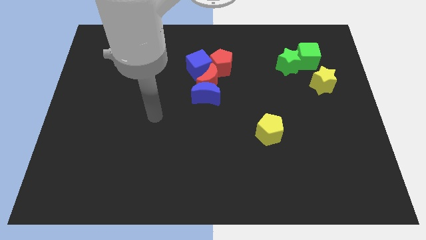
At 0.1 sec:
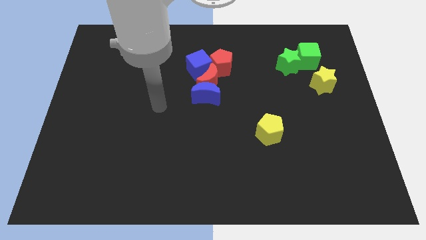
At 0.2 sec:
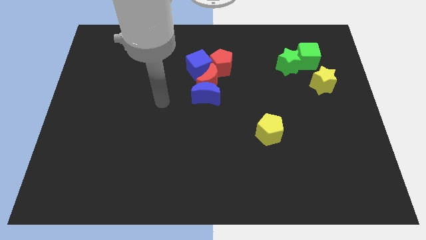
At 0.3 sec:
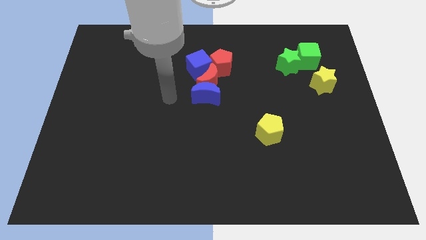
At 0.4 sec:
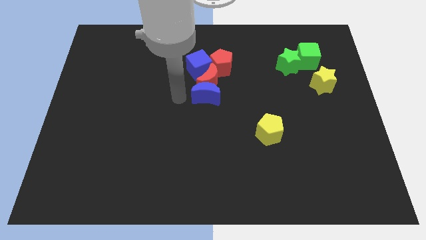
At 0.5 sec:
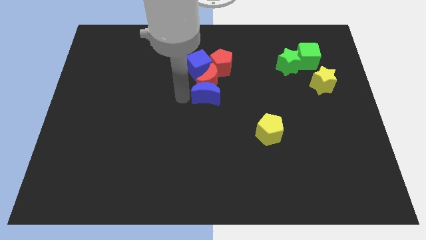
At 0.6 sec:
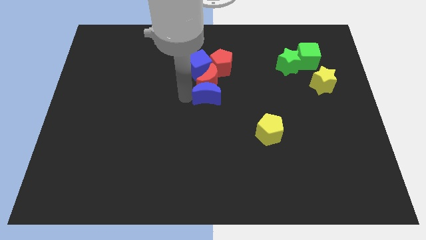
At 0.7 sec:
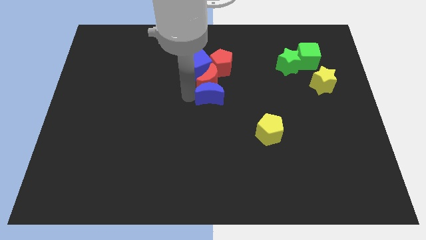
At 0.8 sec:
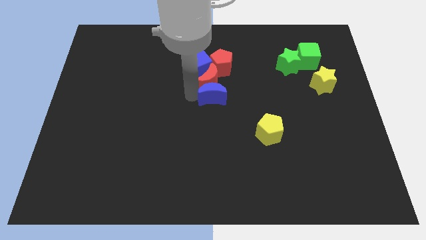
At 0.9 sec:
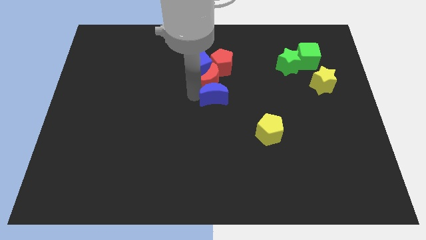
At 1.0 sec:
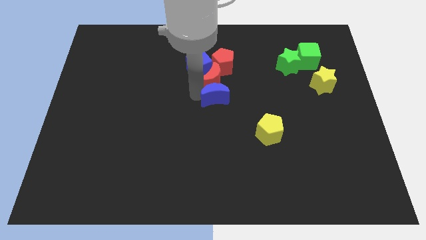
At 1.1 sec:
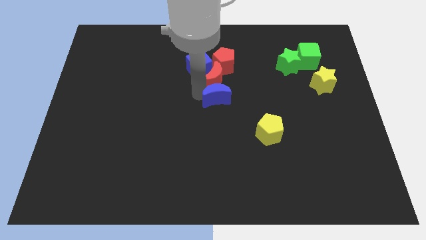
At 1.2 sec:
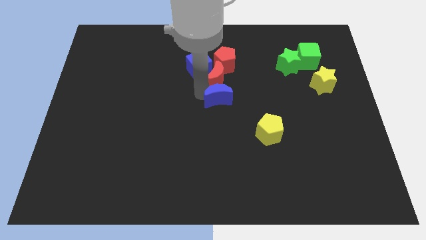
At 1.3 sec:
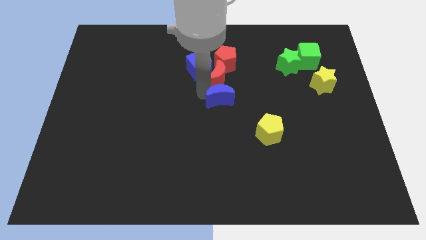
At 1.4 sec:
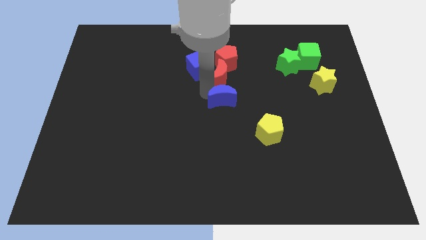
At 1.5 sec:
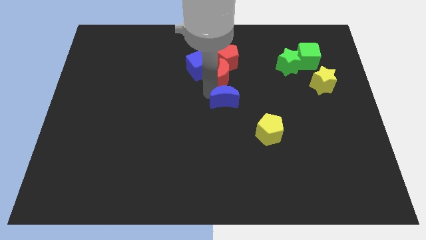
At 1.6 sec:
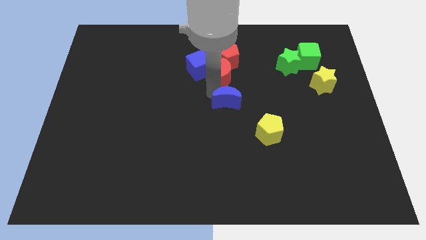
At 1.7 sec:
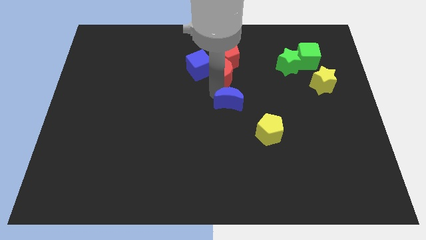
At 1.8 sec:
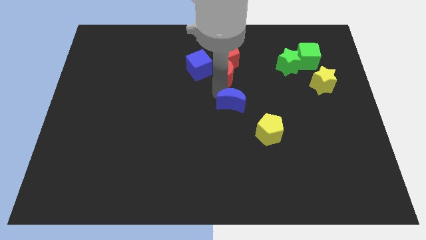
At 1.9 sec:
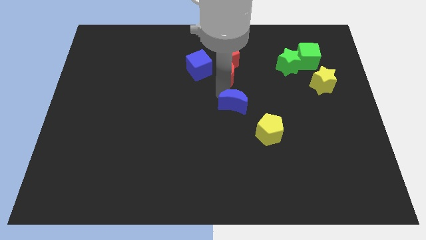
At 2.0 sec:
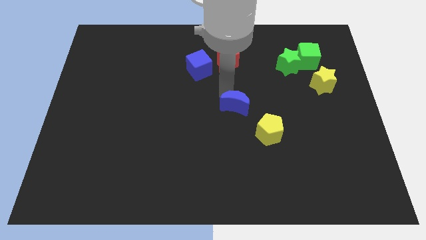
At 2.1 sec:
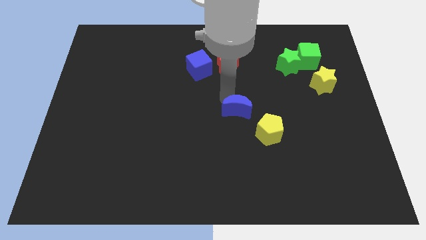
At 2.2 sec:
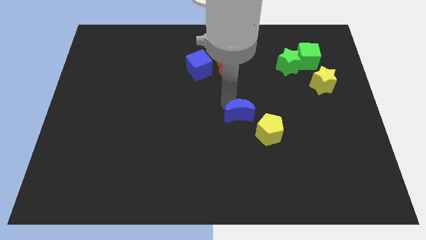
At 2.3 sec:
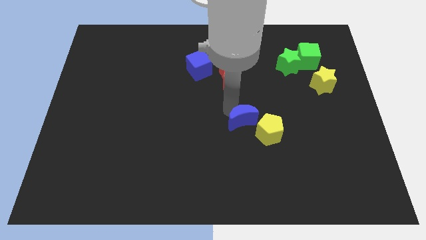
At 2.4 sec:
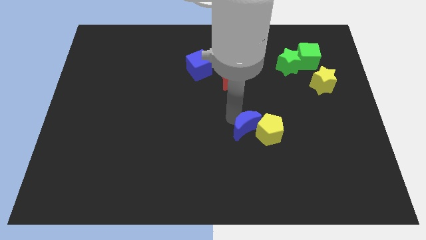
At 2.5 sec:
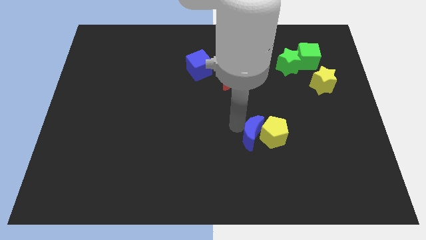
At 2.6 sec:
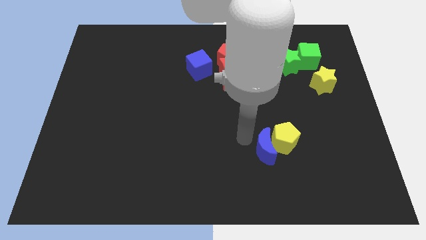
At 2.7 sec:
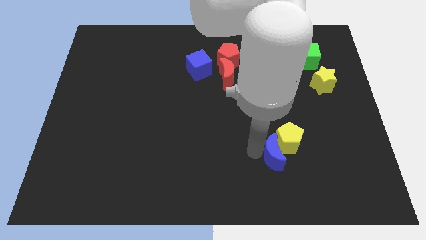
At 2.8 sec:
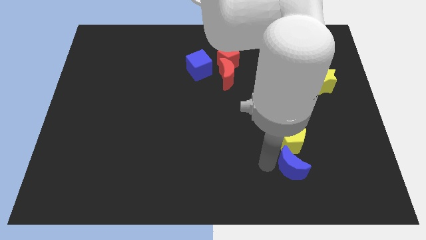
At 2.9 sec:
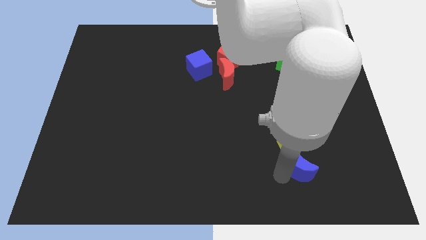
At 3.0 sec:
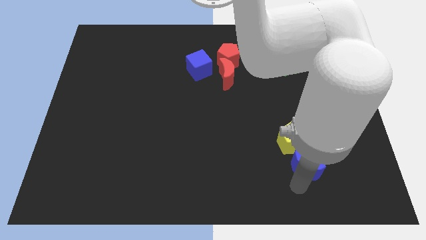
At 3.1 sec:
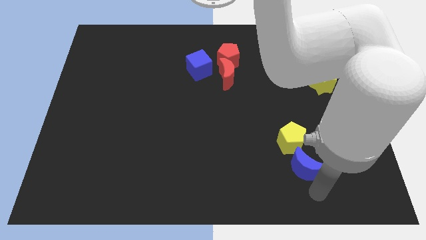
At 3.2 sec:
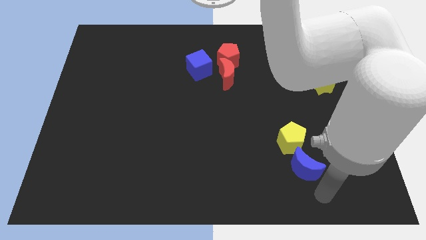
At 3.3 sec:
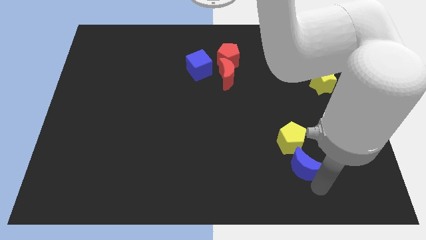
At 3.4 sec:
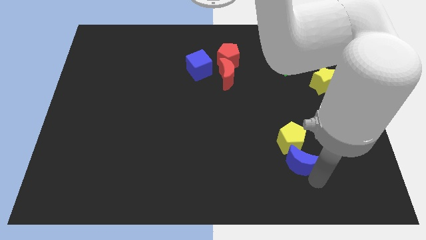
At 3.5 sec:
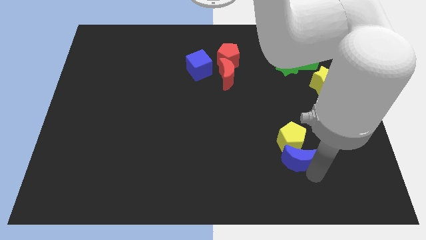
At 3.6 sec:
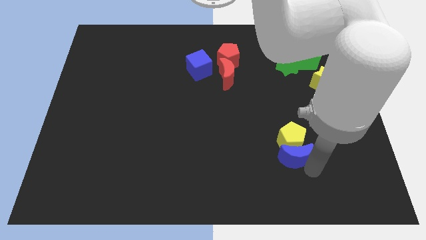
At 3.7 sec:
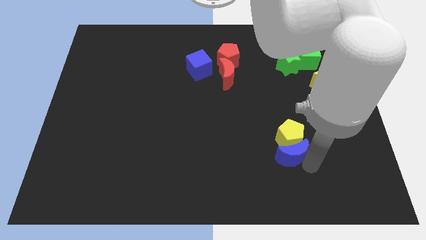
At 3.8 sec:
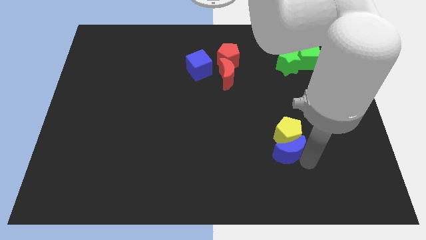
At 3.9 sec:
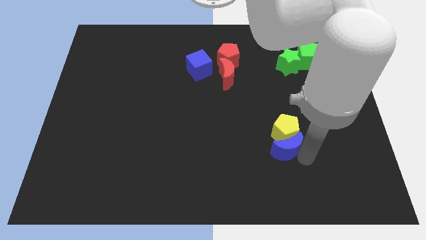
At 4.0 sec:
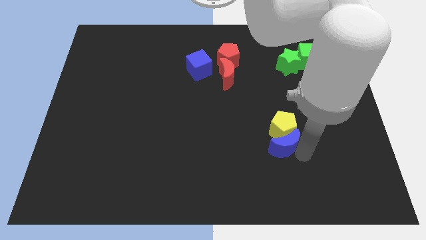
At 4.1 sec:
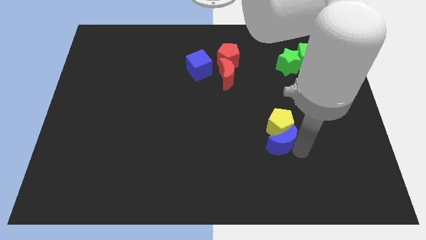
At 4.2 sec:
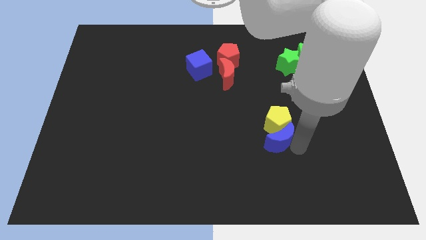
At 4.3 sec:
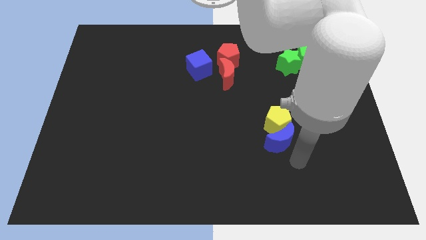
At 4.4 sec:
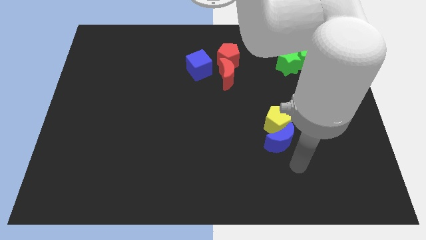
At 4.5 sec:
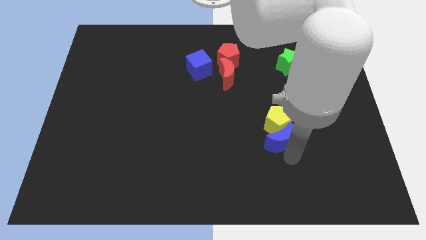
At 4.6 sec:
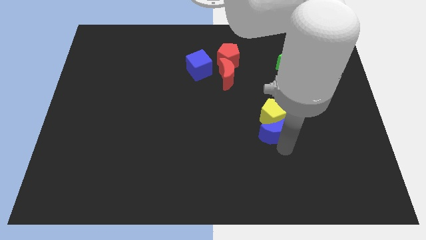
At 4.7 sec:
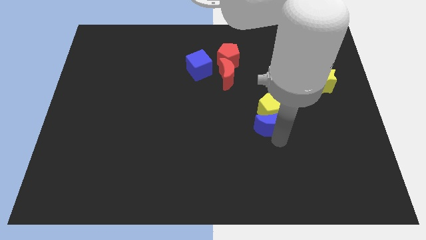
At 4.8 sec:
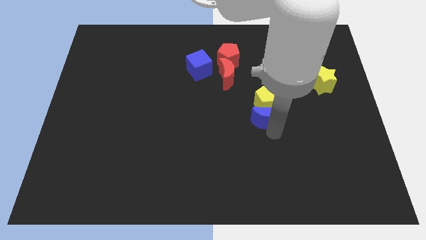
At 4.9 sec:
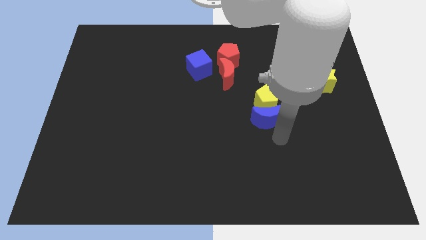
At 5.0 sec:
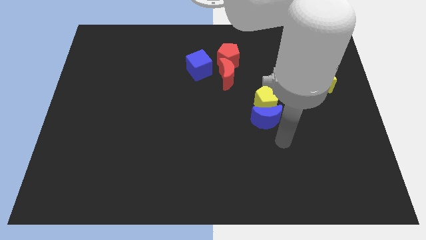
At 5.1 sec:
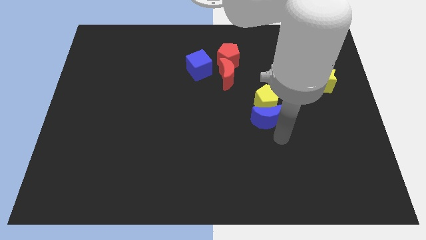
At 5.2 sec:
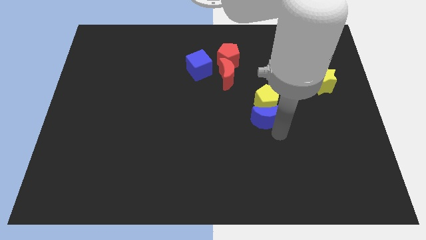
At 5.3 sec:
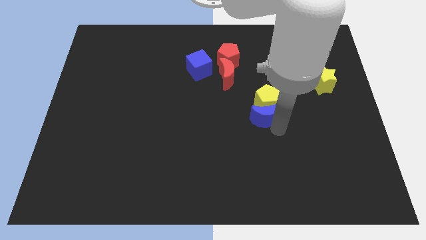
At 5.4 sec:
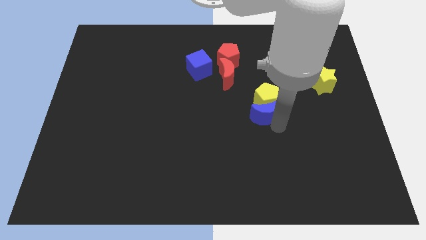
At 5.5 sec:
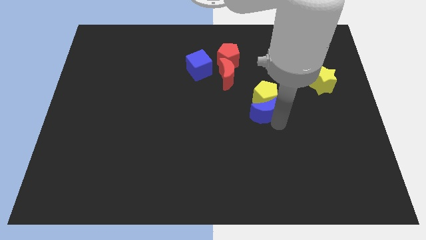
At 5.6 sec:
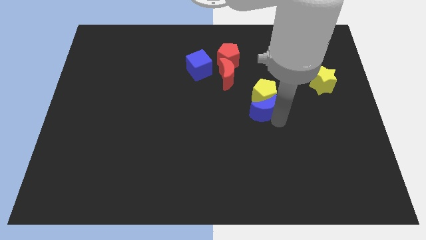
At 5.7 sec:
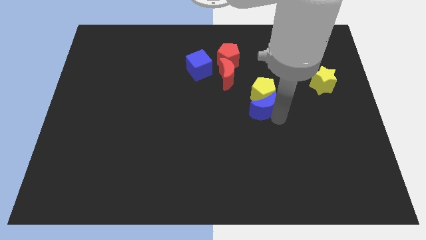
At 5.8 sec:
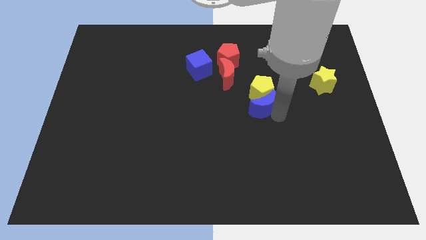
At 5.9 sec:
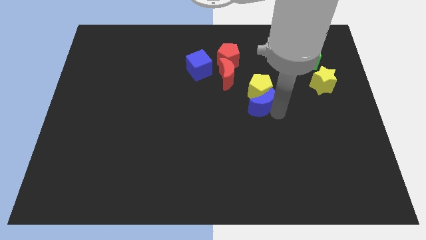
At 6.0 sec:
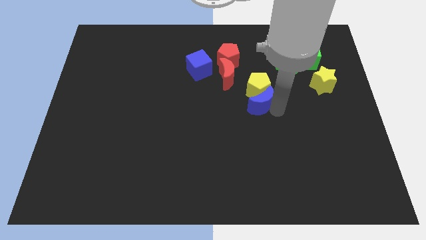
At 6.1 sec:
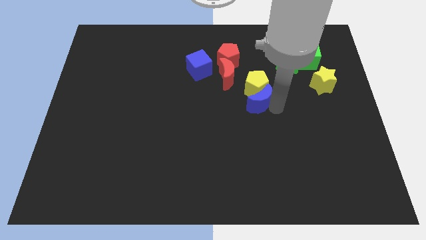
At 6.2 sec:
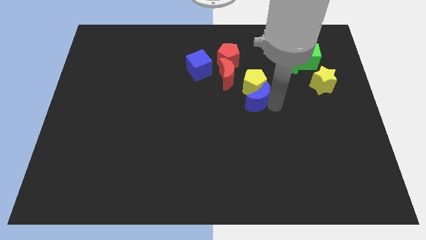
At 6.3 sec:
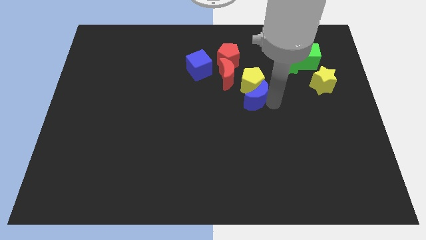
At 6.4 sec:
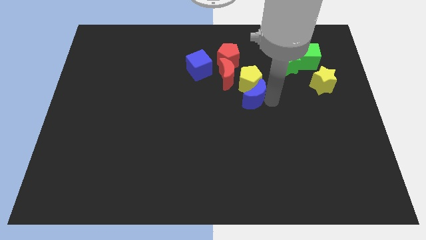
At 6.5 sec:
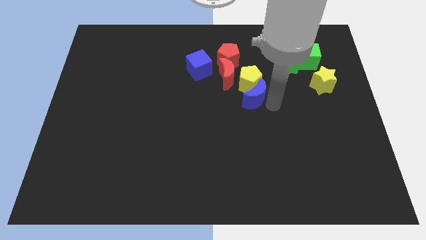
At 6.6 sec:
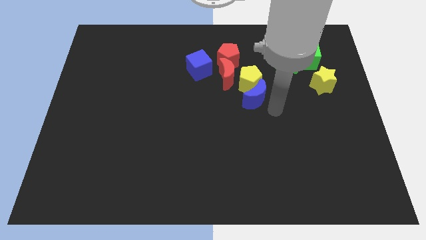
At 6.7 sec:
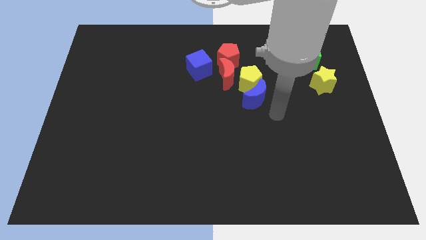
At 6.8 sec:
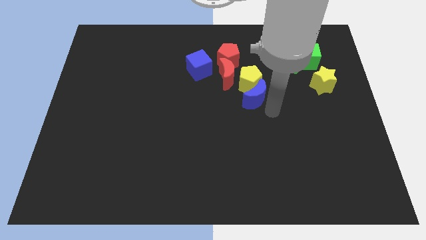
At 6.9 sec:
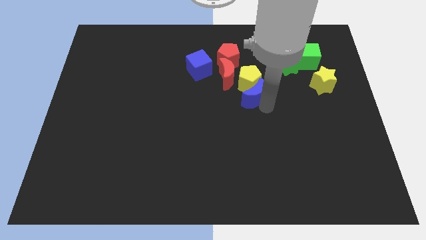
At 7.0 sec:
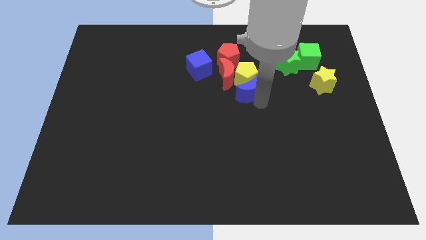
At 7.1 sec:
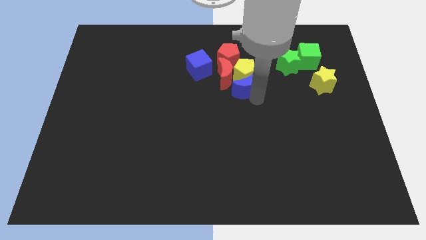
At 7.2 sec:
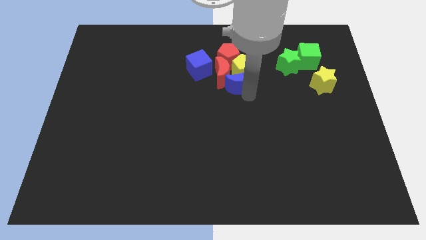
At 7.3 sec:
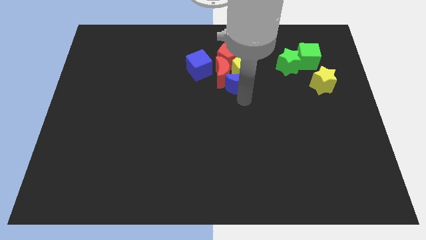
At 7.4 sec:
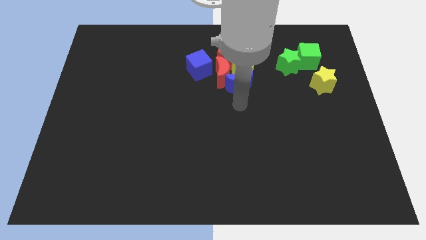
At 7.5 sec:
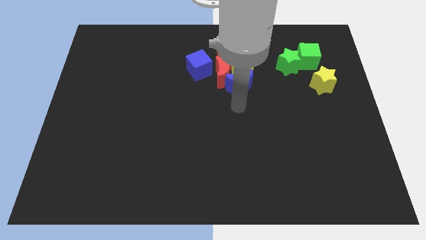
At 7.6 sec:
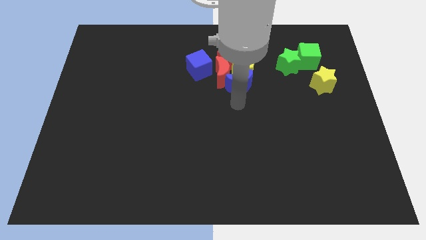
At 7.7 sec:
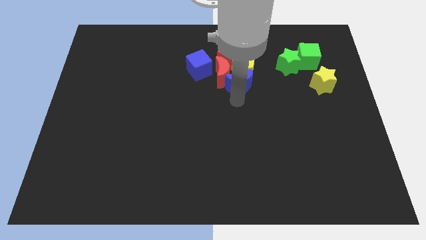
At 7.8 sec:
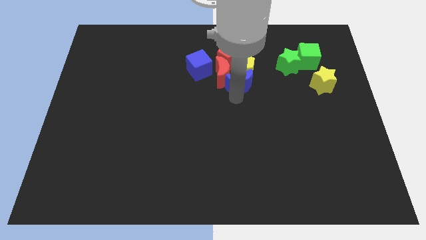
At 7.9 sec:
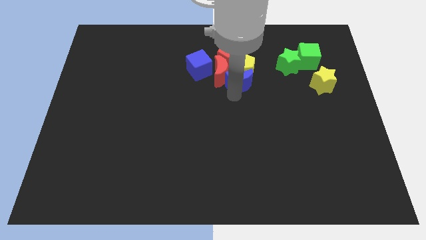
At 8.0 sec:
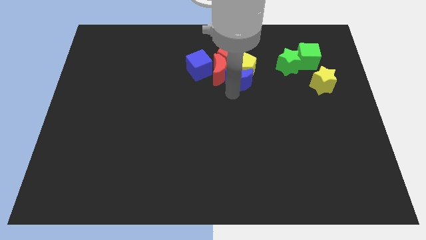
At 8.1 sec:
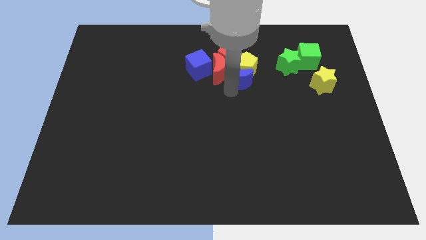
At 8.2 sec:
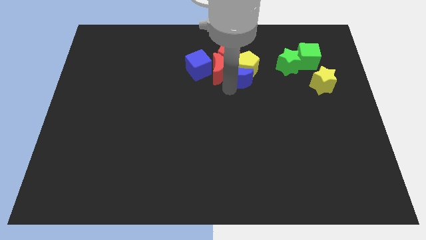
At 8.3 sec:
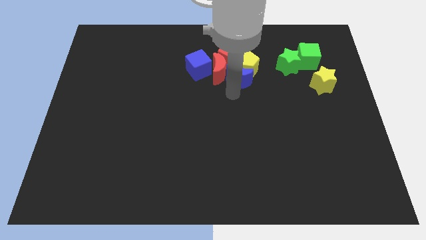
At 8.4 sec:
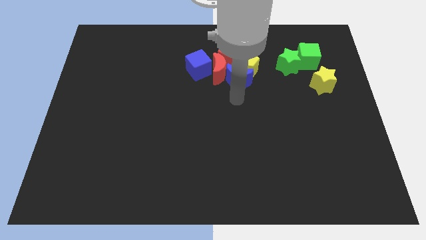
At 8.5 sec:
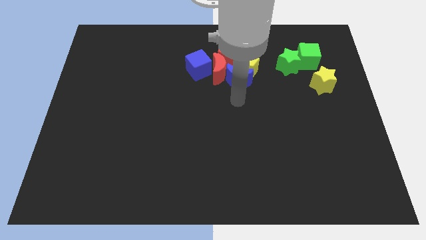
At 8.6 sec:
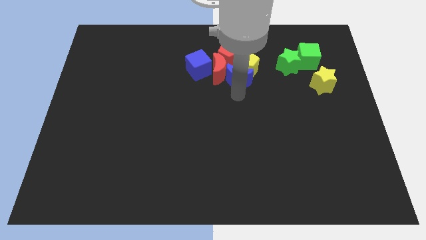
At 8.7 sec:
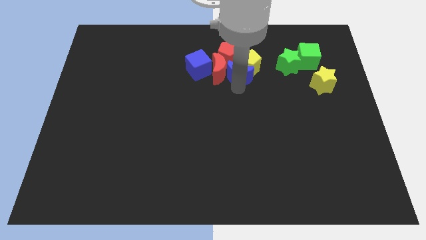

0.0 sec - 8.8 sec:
put the blue moon to the top right side of the red moon
